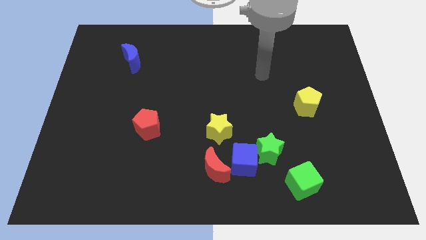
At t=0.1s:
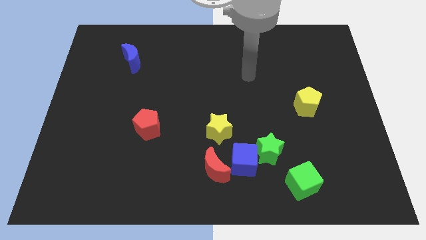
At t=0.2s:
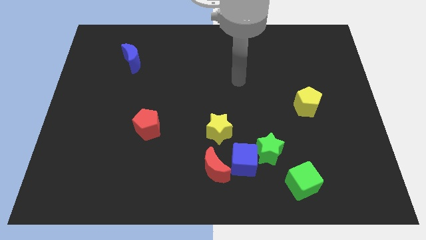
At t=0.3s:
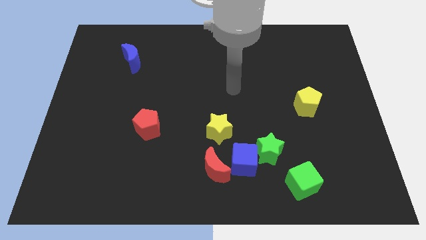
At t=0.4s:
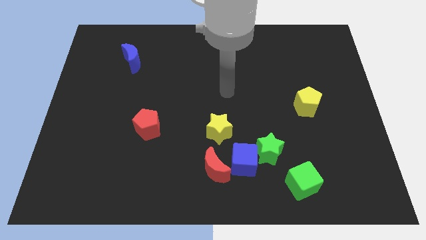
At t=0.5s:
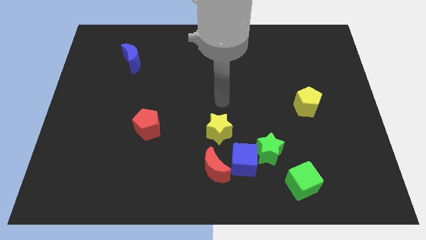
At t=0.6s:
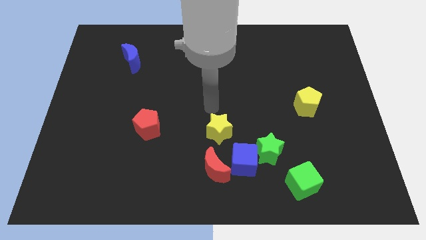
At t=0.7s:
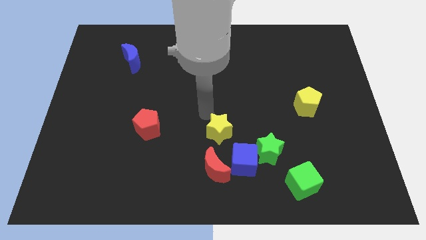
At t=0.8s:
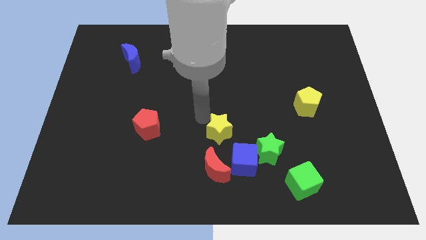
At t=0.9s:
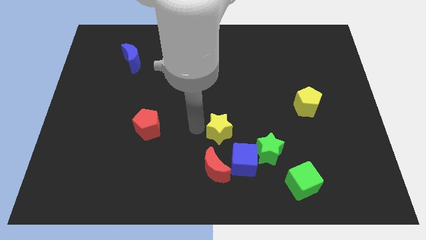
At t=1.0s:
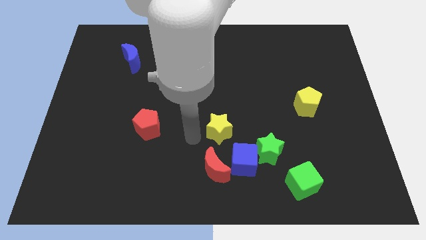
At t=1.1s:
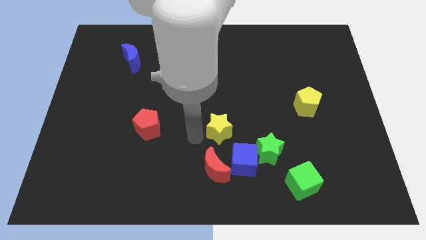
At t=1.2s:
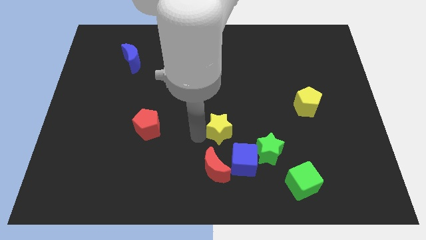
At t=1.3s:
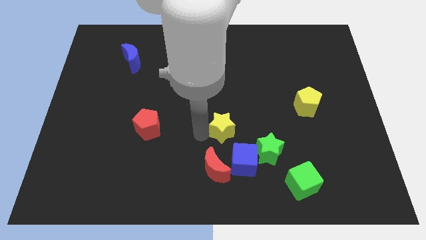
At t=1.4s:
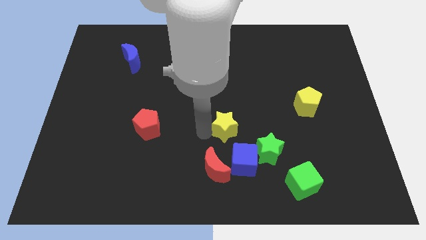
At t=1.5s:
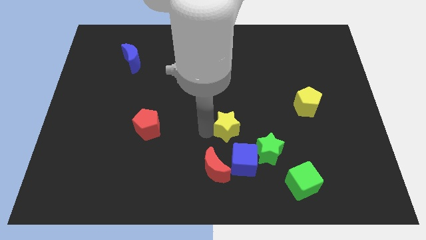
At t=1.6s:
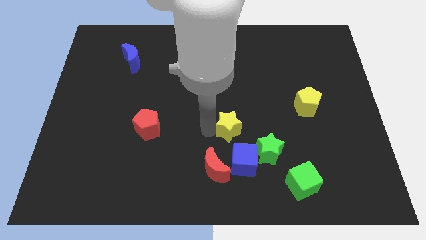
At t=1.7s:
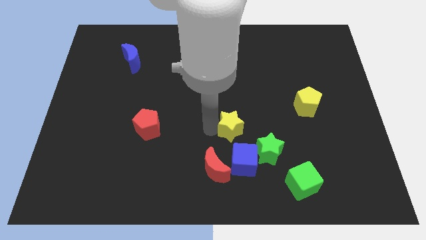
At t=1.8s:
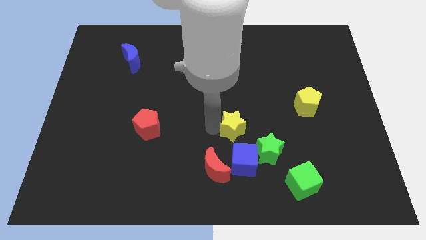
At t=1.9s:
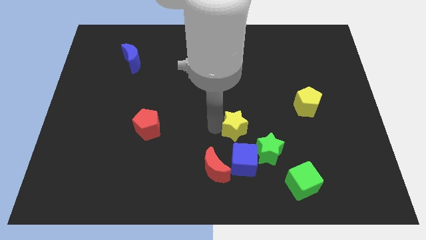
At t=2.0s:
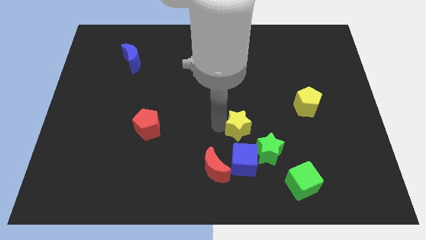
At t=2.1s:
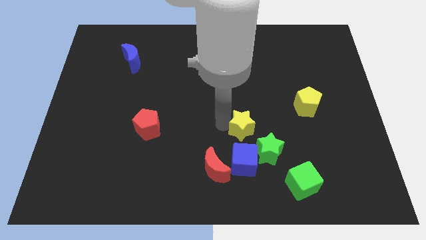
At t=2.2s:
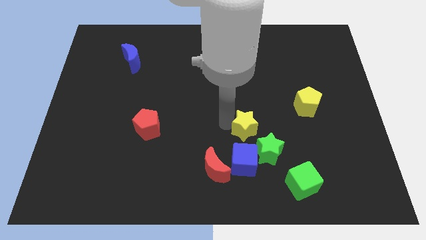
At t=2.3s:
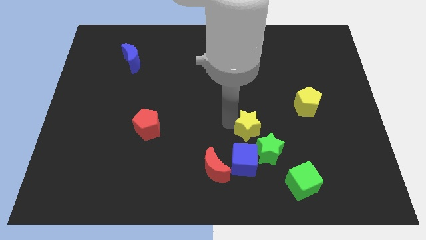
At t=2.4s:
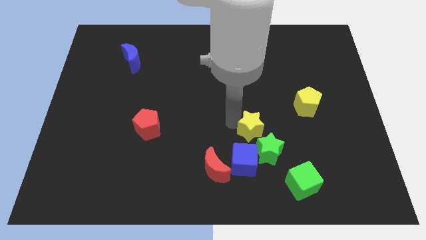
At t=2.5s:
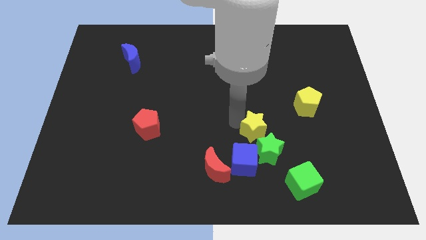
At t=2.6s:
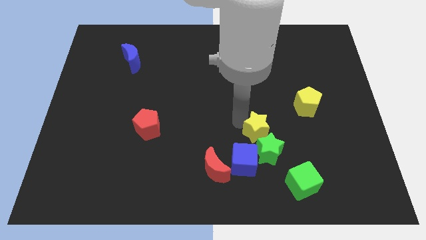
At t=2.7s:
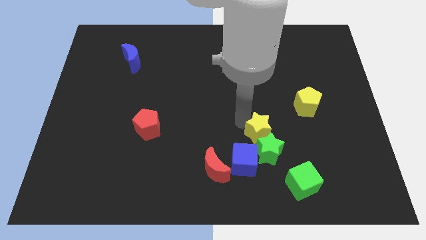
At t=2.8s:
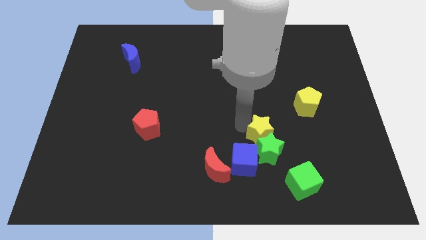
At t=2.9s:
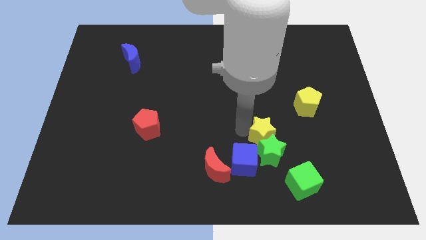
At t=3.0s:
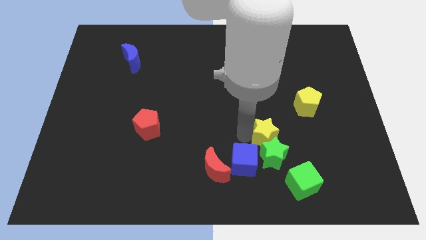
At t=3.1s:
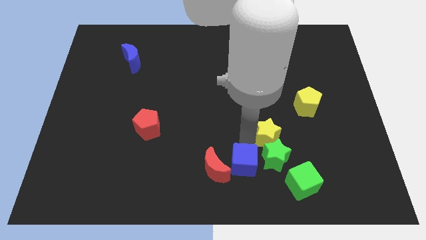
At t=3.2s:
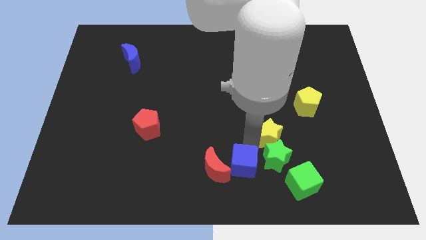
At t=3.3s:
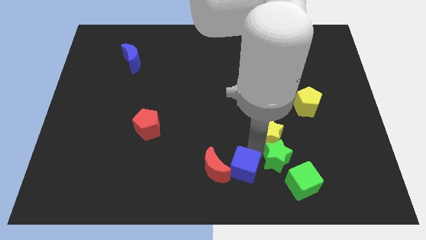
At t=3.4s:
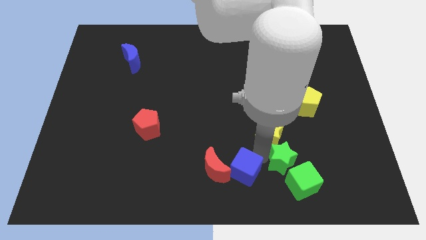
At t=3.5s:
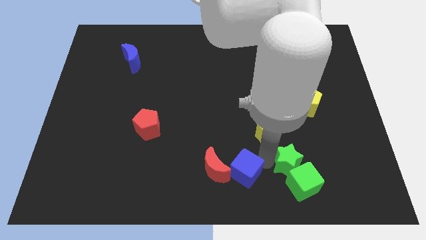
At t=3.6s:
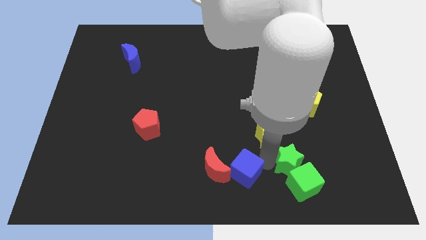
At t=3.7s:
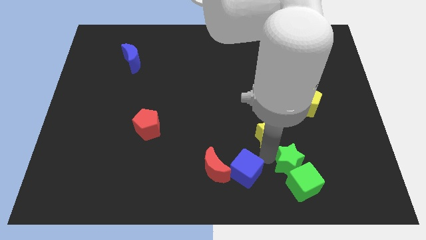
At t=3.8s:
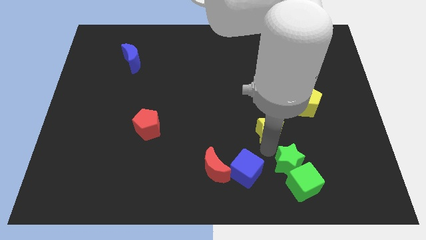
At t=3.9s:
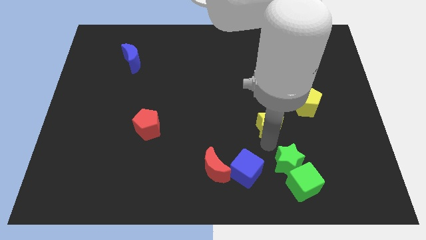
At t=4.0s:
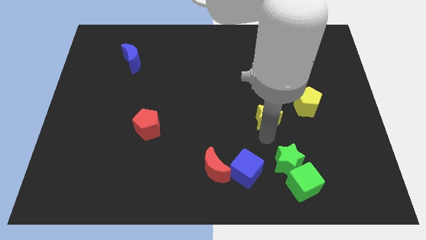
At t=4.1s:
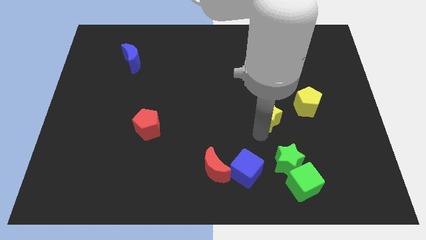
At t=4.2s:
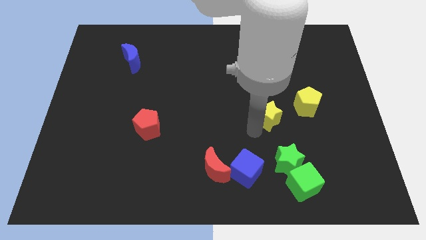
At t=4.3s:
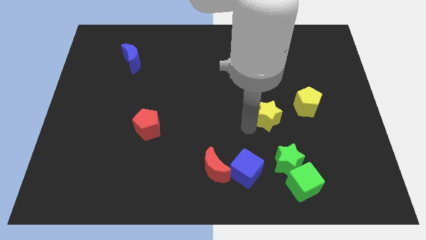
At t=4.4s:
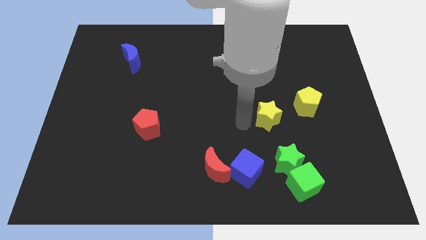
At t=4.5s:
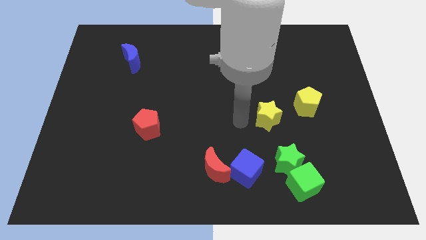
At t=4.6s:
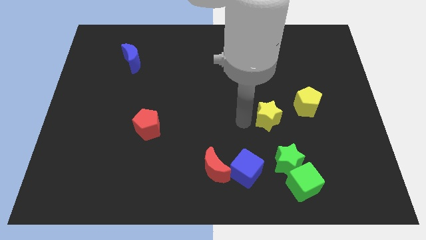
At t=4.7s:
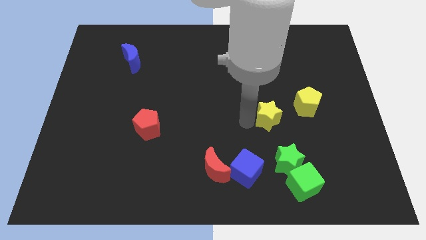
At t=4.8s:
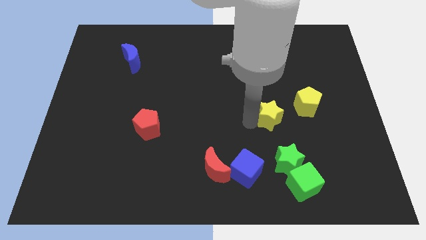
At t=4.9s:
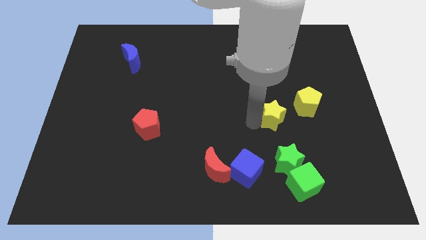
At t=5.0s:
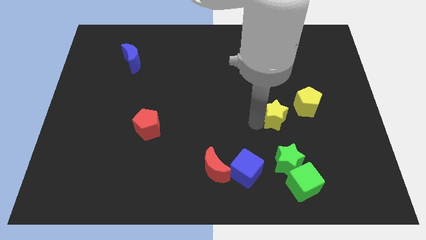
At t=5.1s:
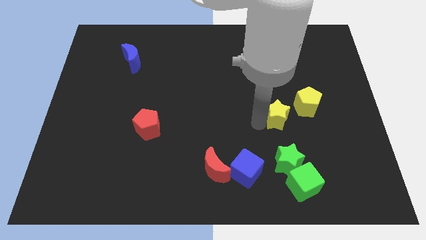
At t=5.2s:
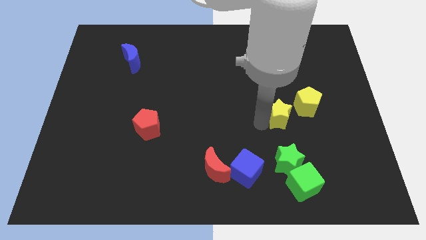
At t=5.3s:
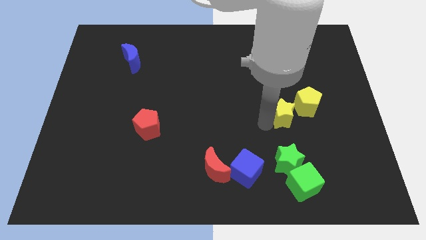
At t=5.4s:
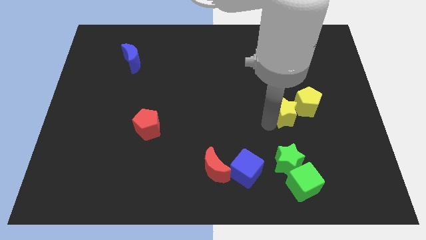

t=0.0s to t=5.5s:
slide the yellow star close to the yellow pentagon

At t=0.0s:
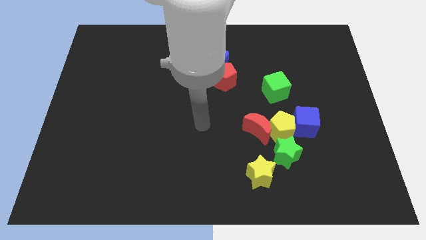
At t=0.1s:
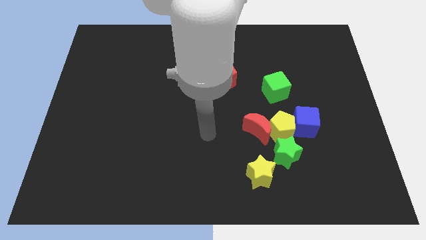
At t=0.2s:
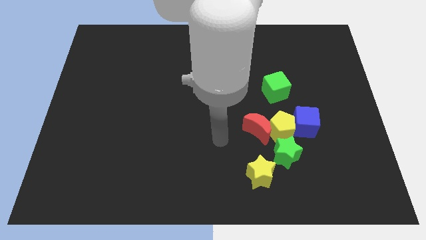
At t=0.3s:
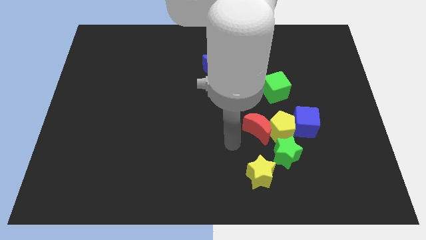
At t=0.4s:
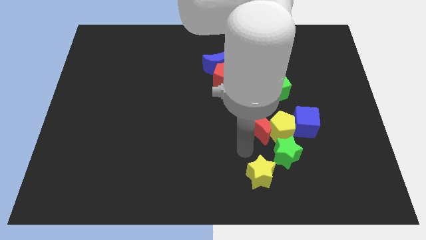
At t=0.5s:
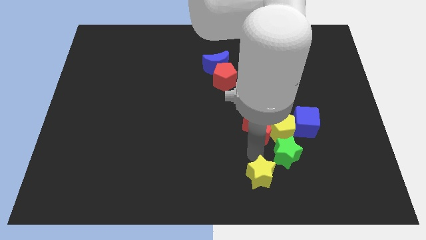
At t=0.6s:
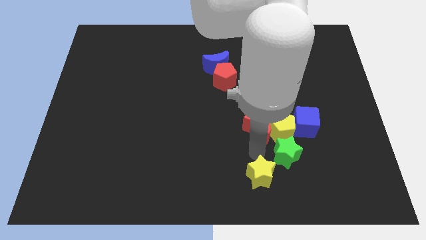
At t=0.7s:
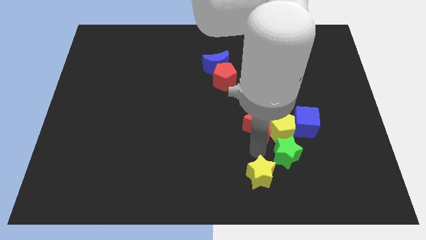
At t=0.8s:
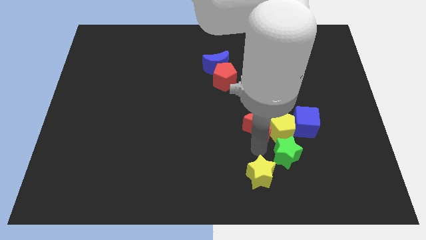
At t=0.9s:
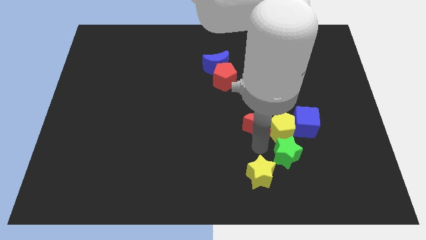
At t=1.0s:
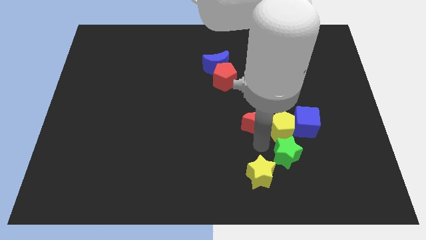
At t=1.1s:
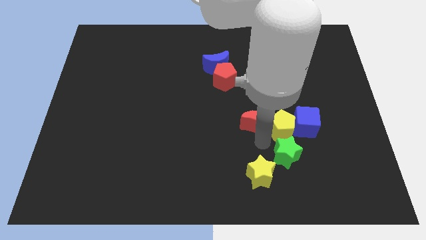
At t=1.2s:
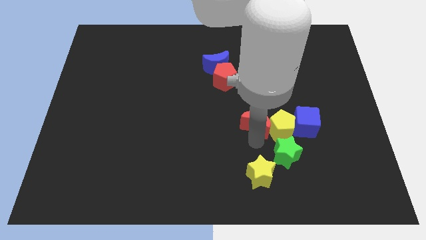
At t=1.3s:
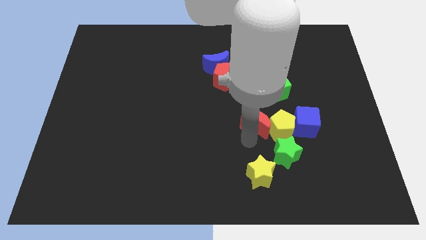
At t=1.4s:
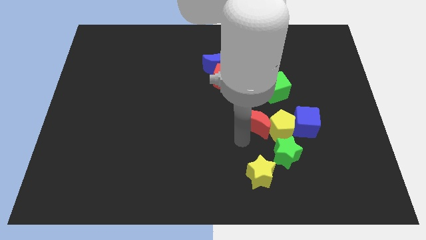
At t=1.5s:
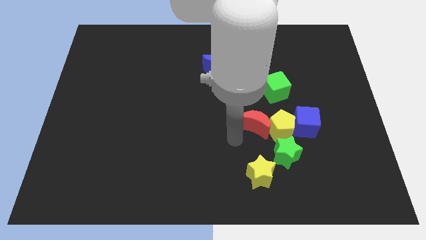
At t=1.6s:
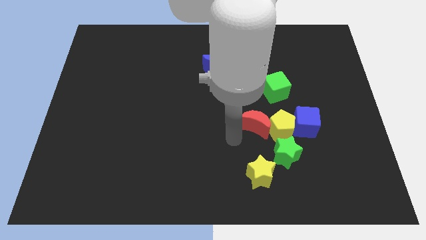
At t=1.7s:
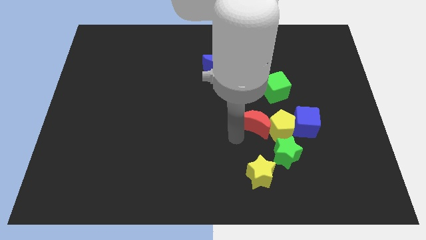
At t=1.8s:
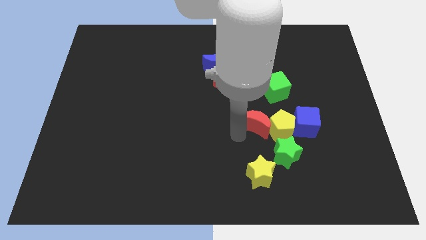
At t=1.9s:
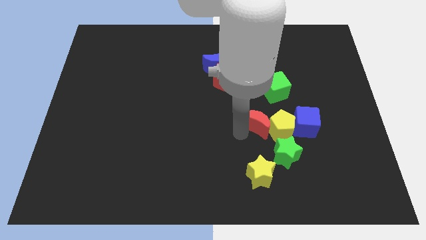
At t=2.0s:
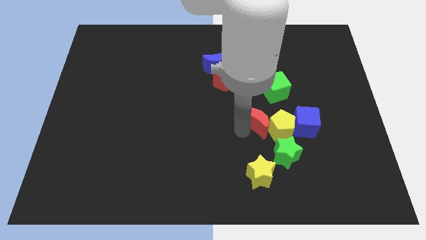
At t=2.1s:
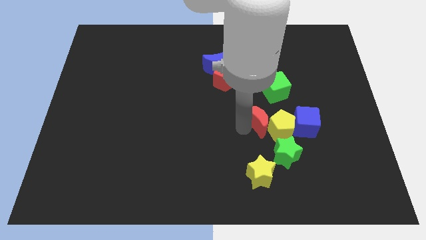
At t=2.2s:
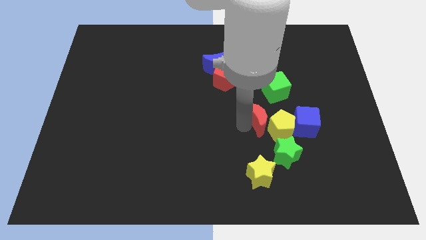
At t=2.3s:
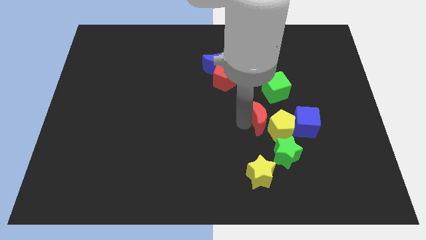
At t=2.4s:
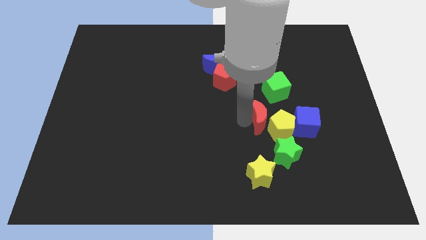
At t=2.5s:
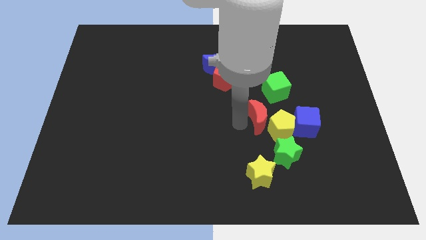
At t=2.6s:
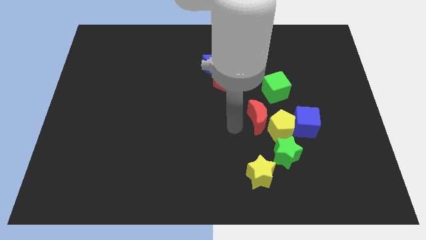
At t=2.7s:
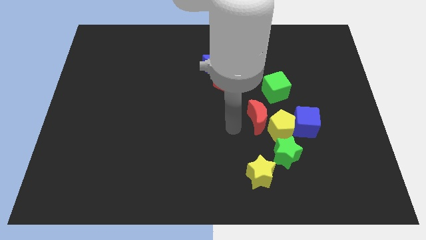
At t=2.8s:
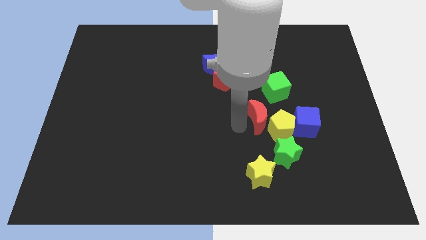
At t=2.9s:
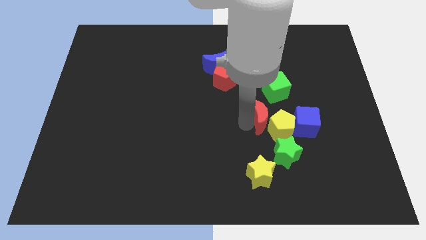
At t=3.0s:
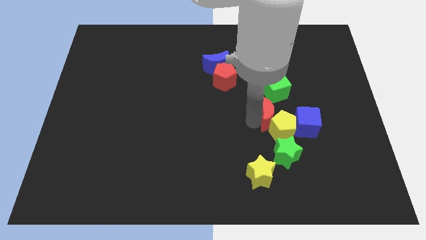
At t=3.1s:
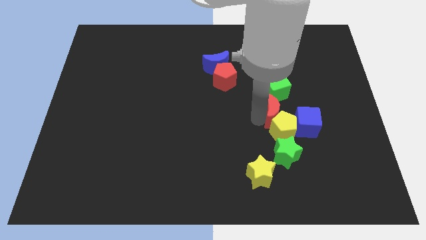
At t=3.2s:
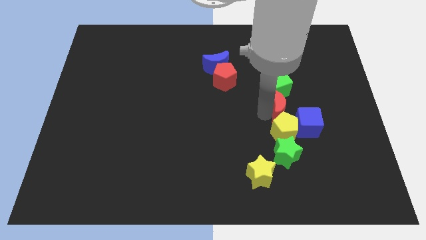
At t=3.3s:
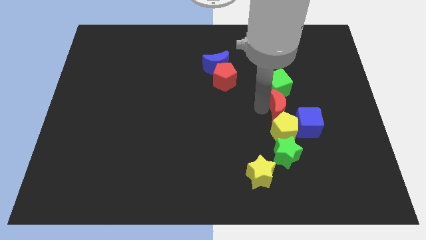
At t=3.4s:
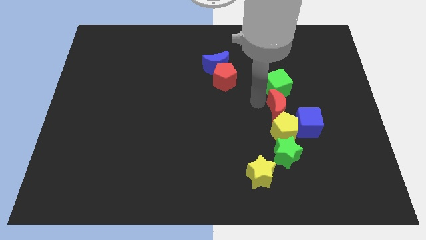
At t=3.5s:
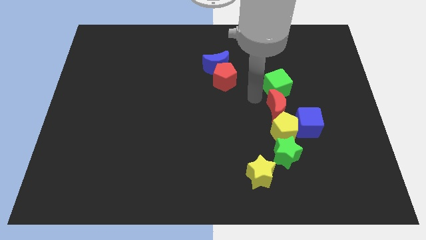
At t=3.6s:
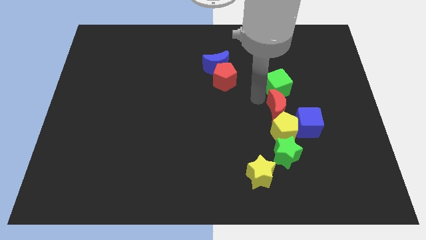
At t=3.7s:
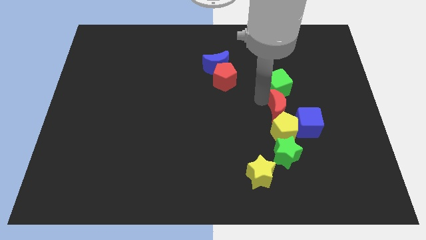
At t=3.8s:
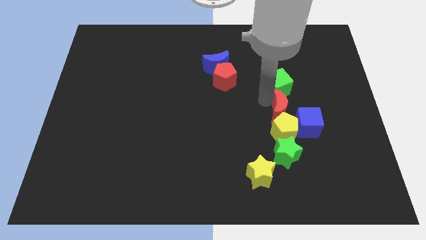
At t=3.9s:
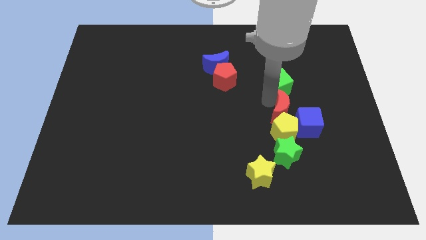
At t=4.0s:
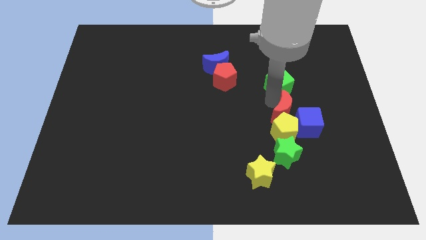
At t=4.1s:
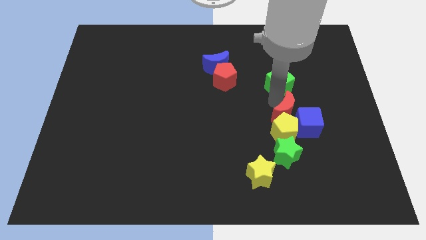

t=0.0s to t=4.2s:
put the red moon next to the blue cube
